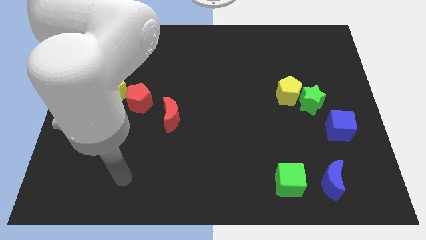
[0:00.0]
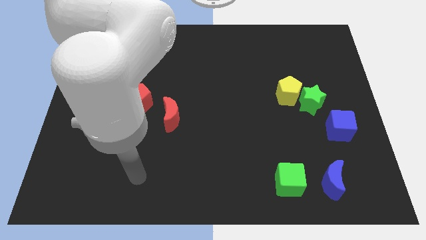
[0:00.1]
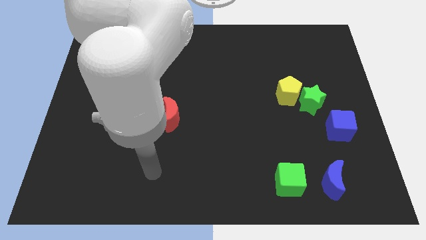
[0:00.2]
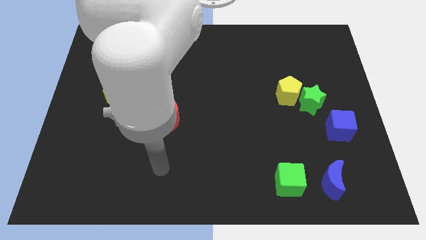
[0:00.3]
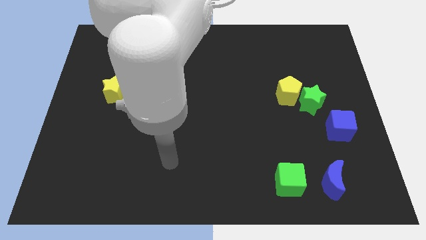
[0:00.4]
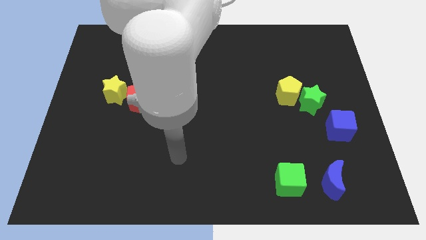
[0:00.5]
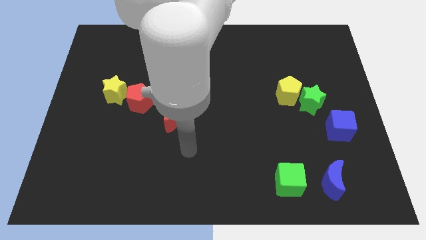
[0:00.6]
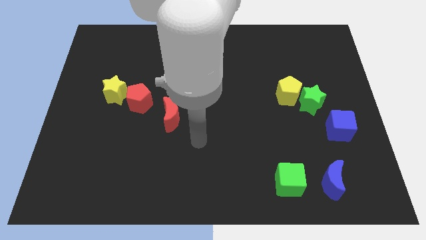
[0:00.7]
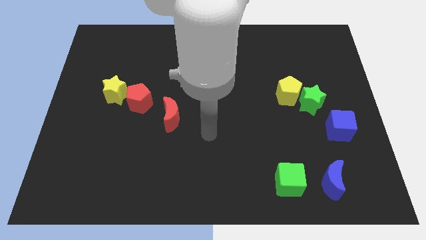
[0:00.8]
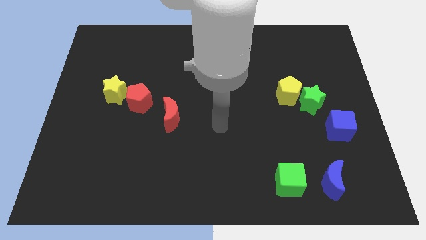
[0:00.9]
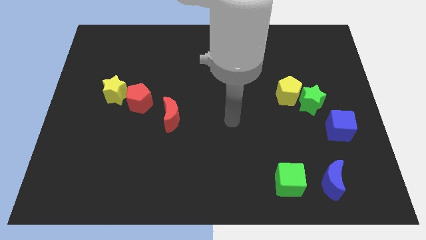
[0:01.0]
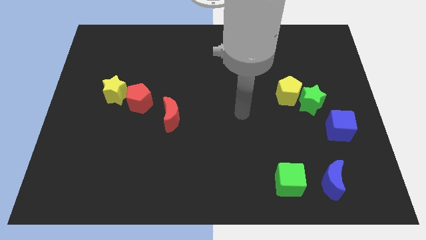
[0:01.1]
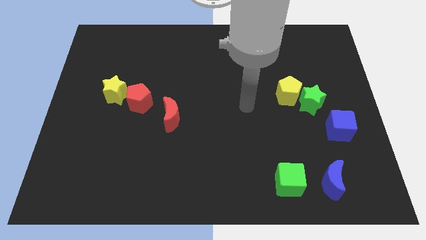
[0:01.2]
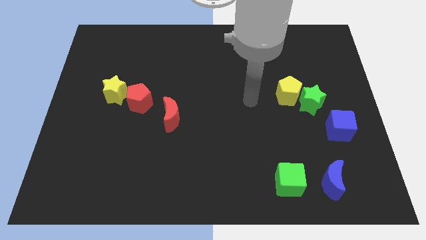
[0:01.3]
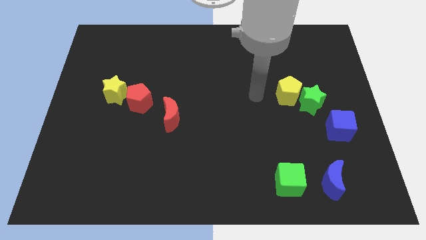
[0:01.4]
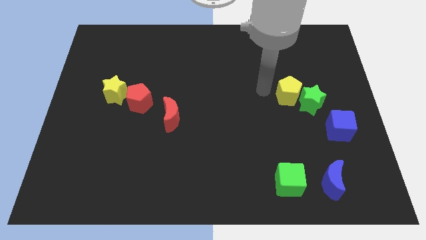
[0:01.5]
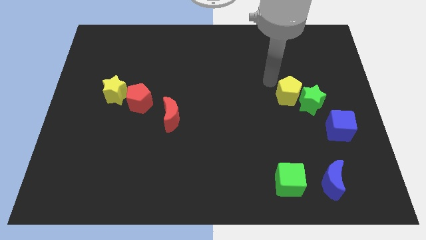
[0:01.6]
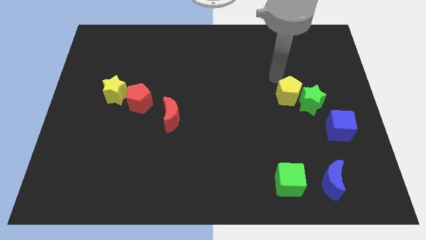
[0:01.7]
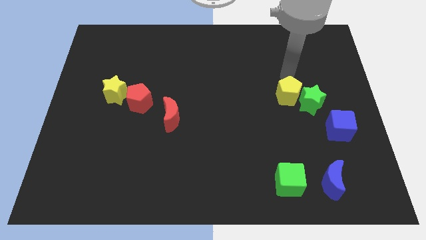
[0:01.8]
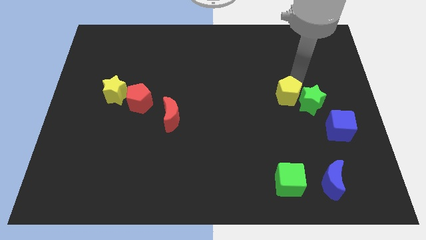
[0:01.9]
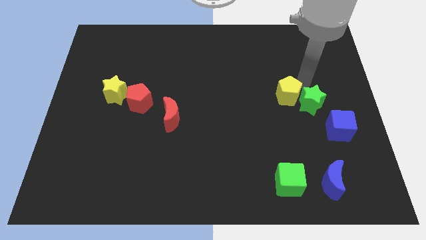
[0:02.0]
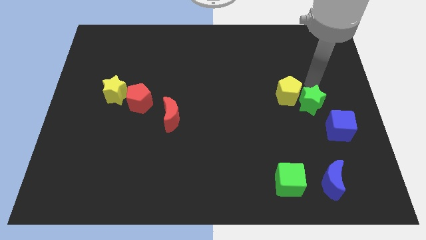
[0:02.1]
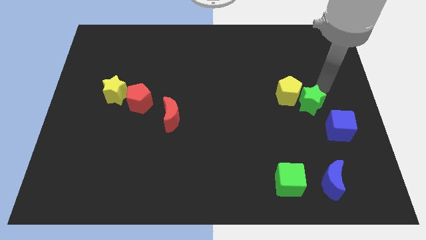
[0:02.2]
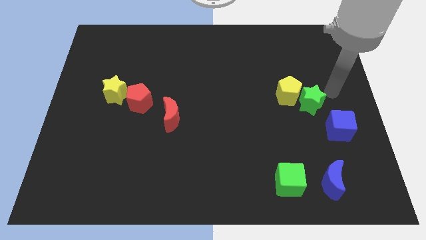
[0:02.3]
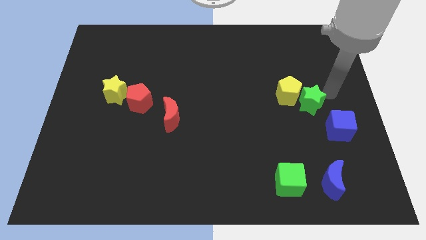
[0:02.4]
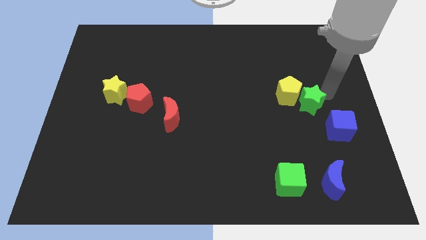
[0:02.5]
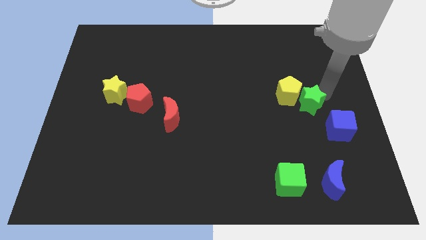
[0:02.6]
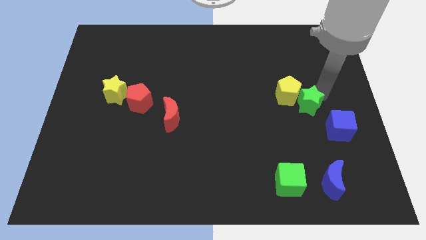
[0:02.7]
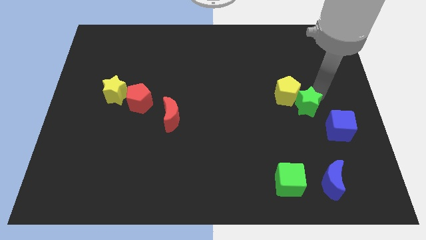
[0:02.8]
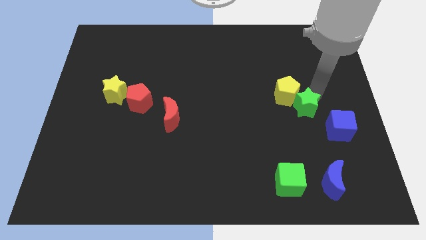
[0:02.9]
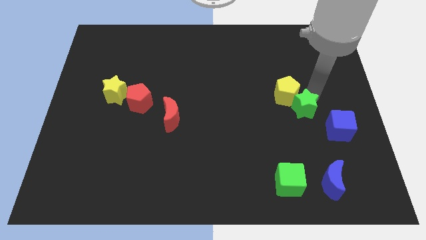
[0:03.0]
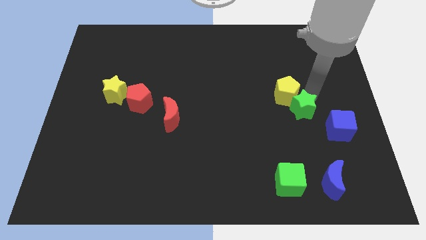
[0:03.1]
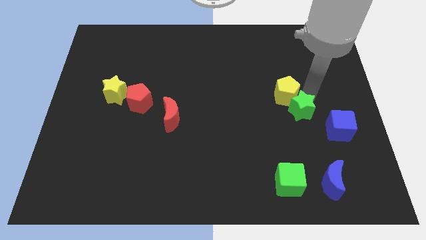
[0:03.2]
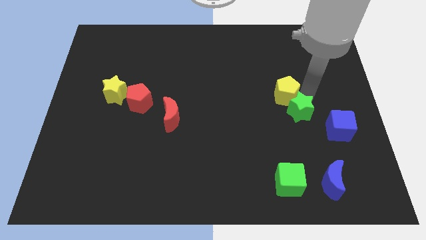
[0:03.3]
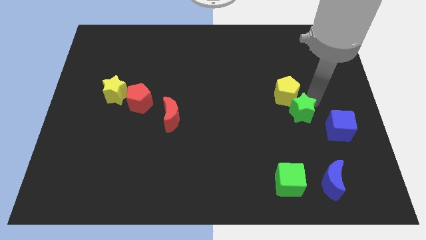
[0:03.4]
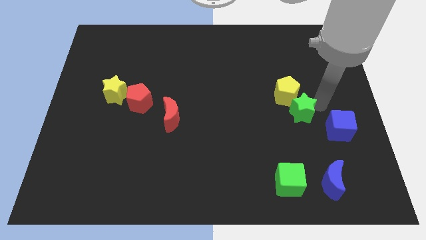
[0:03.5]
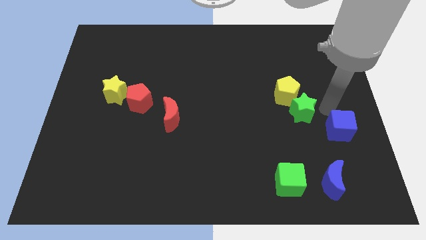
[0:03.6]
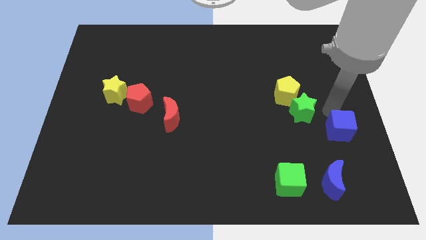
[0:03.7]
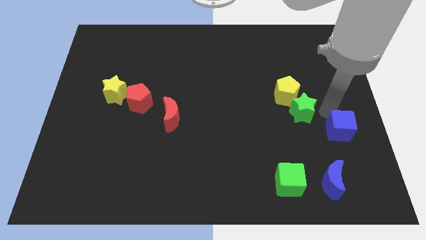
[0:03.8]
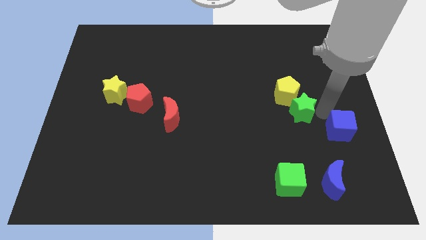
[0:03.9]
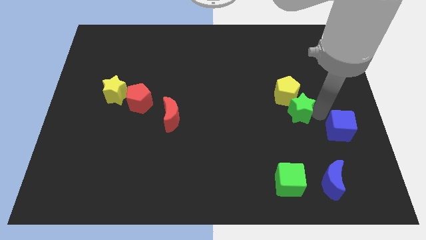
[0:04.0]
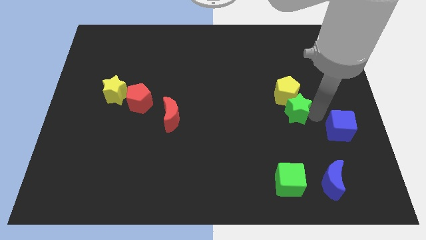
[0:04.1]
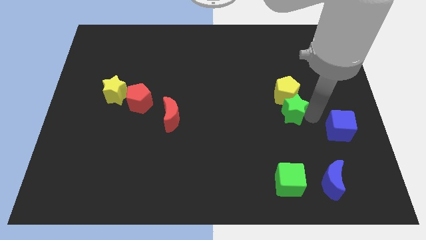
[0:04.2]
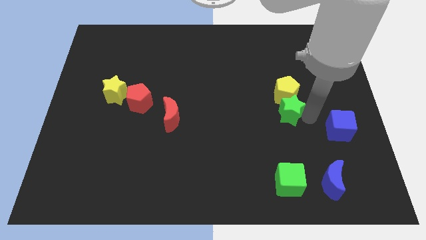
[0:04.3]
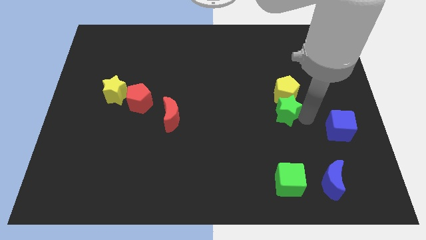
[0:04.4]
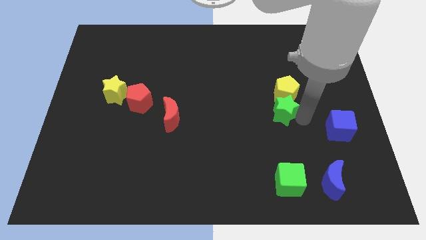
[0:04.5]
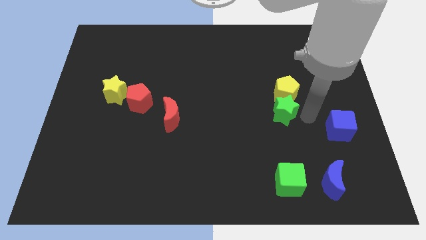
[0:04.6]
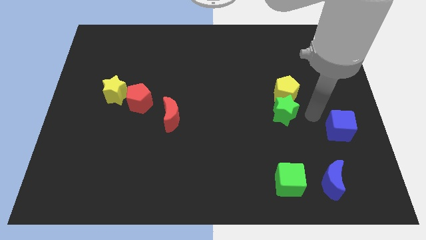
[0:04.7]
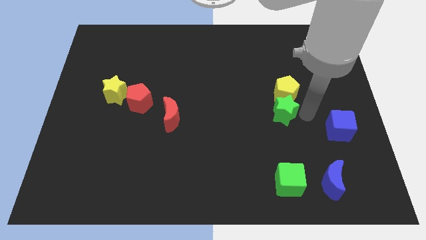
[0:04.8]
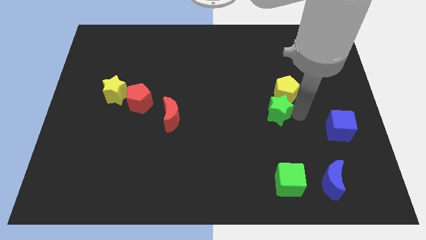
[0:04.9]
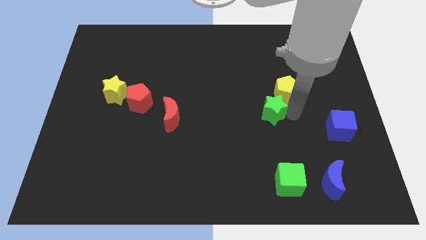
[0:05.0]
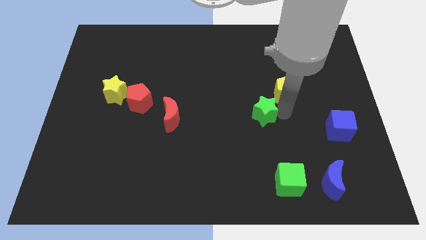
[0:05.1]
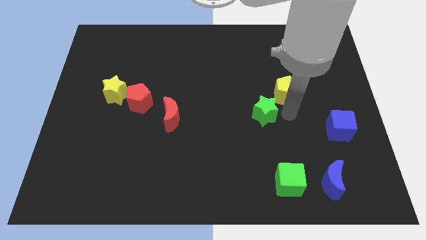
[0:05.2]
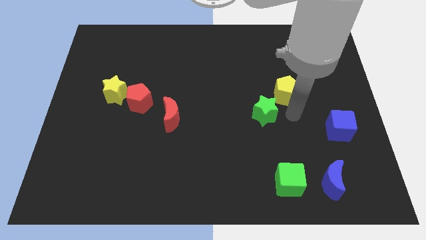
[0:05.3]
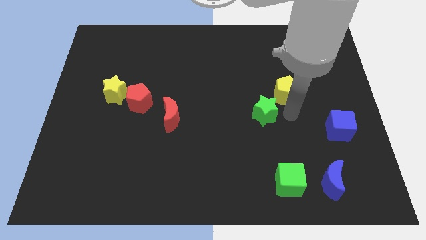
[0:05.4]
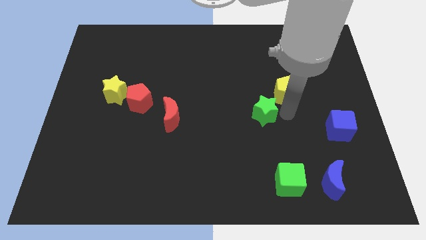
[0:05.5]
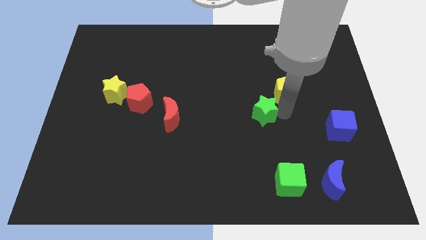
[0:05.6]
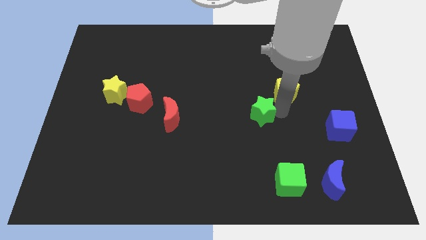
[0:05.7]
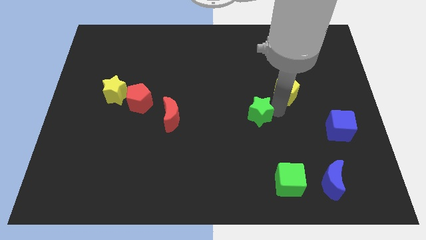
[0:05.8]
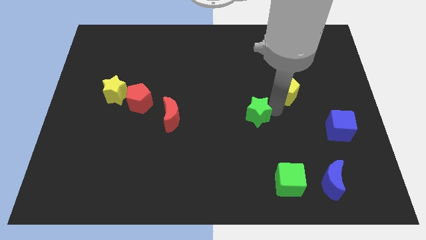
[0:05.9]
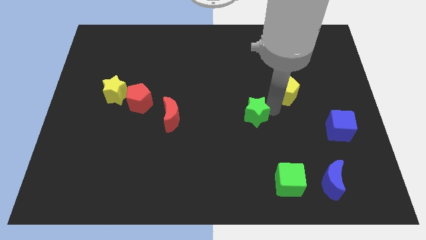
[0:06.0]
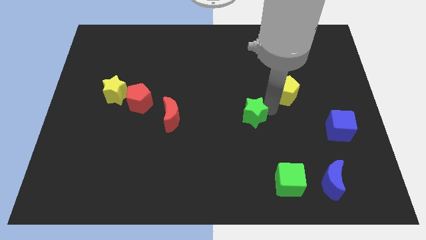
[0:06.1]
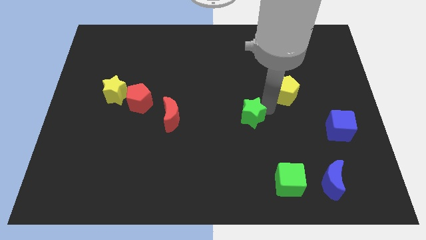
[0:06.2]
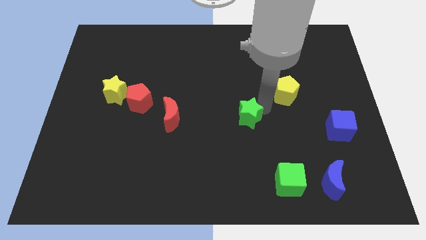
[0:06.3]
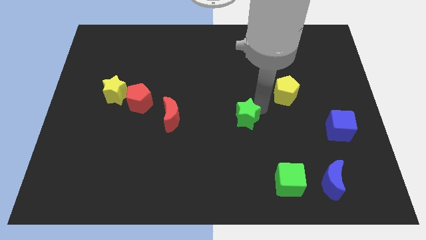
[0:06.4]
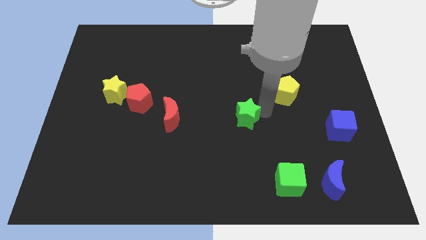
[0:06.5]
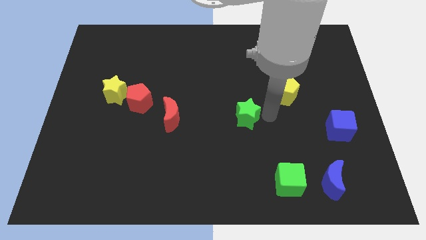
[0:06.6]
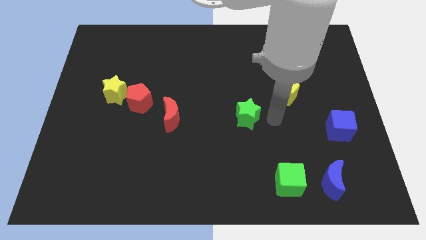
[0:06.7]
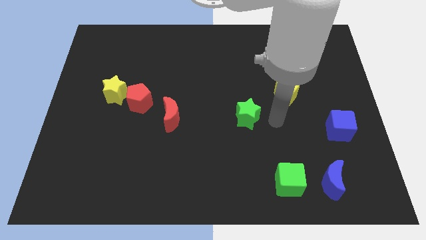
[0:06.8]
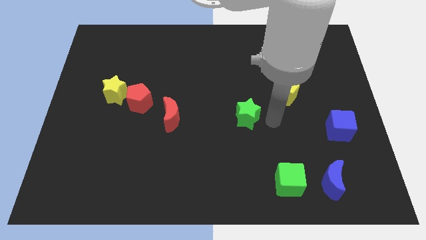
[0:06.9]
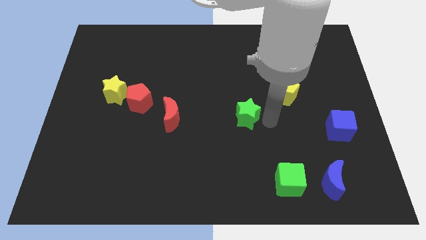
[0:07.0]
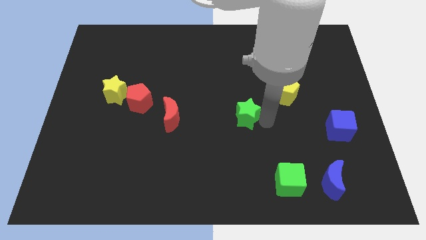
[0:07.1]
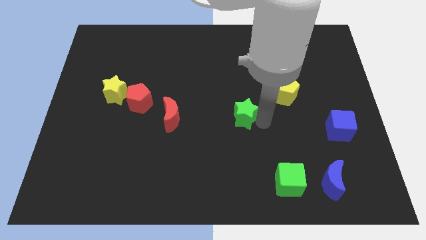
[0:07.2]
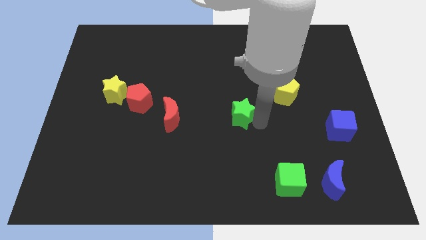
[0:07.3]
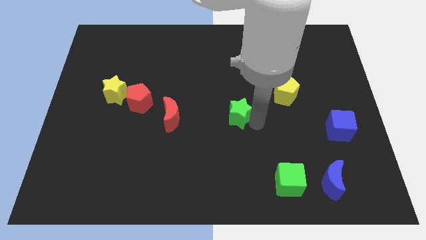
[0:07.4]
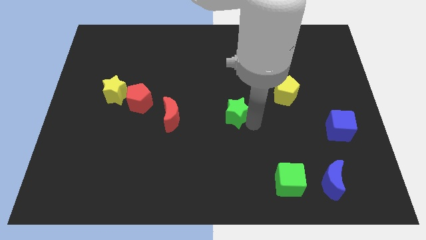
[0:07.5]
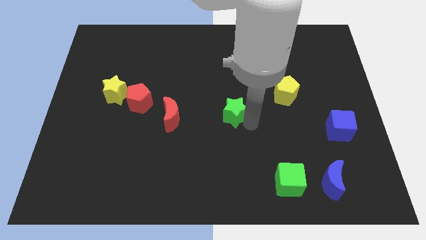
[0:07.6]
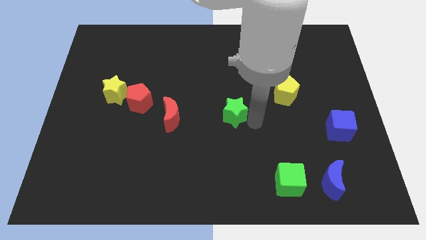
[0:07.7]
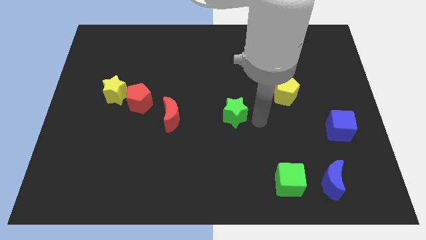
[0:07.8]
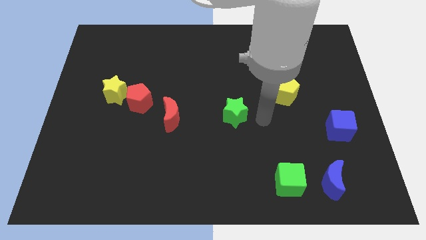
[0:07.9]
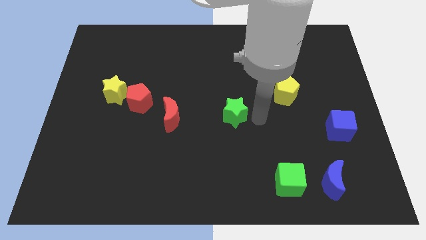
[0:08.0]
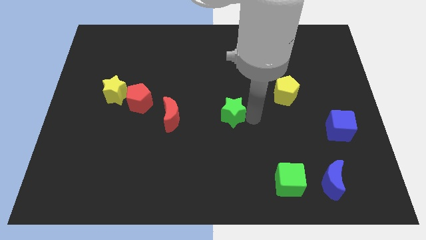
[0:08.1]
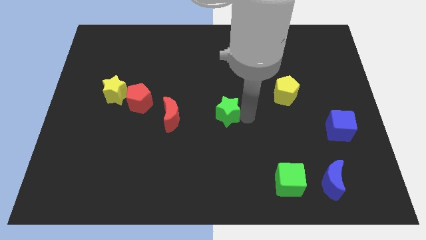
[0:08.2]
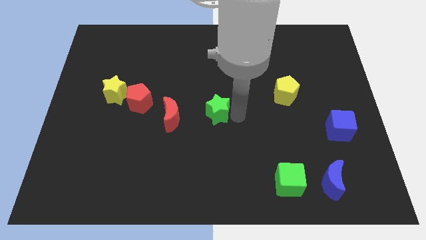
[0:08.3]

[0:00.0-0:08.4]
push the green star to the left
